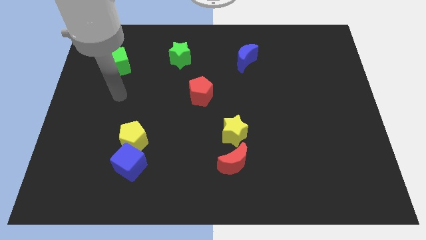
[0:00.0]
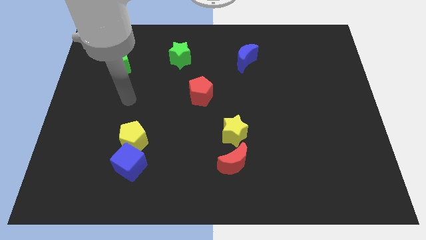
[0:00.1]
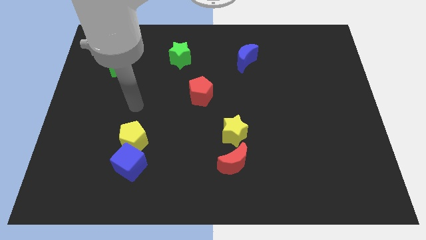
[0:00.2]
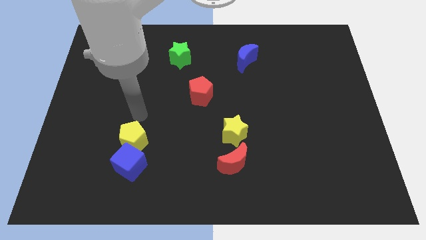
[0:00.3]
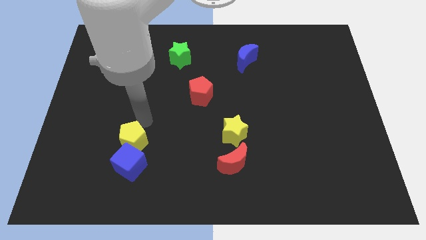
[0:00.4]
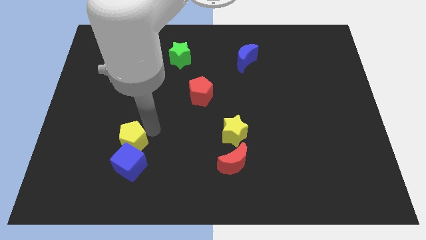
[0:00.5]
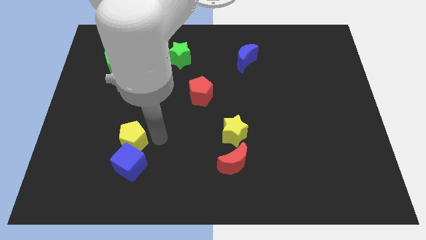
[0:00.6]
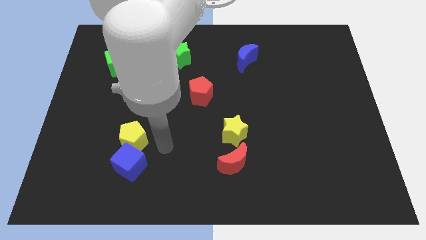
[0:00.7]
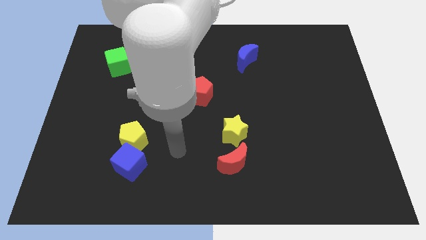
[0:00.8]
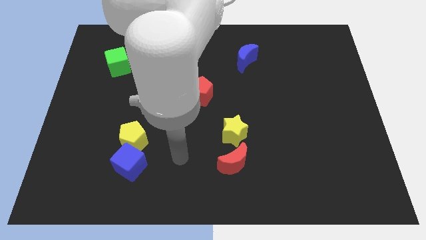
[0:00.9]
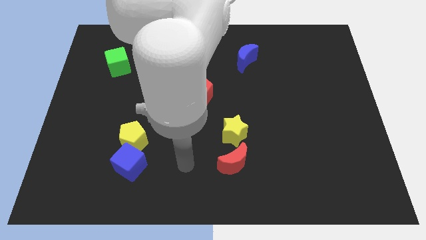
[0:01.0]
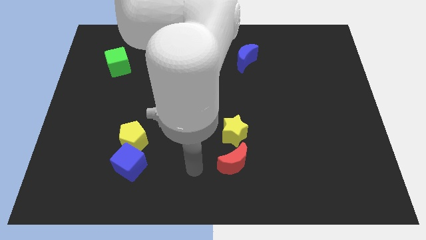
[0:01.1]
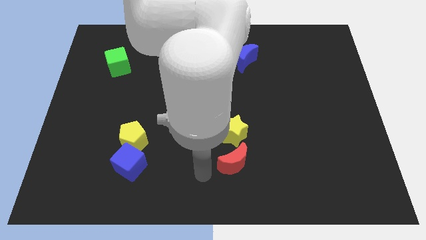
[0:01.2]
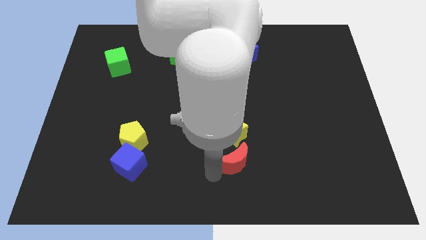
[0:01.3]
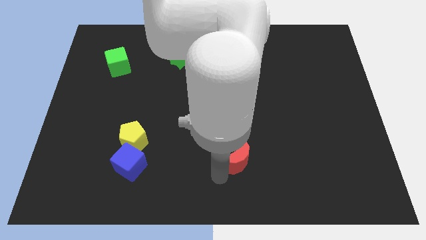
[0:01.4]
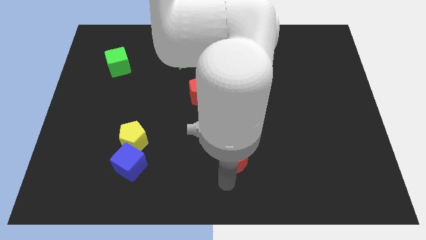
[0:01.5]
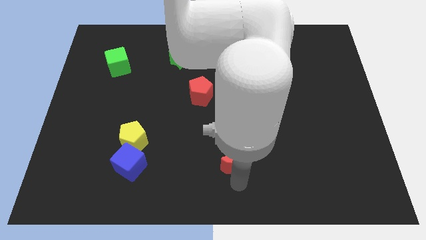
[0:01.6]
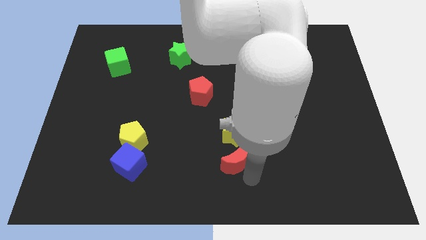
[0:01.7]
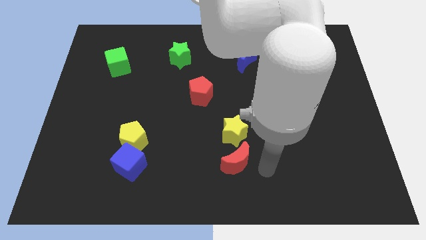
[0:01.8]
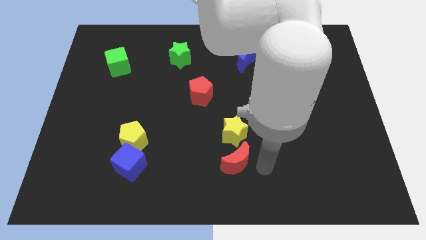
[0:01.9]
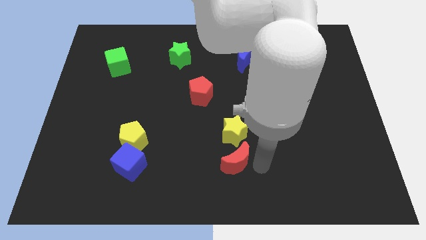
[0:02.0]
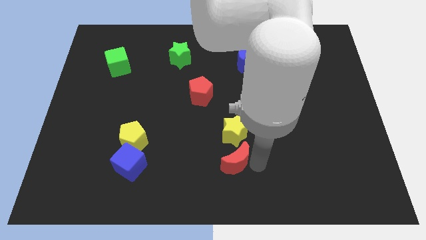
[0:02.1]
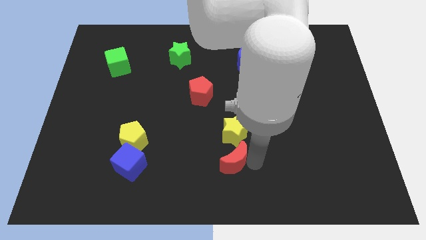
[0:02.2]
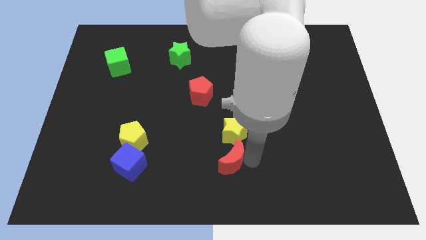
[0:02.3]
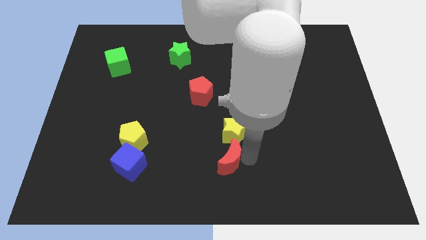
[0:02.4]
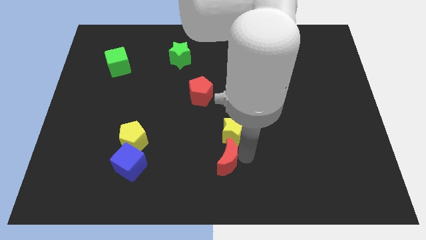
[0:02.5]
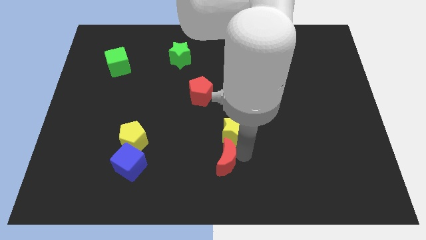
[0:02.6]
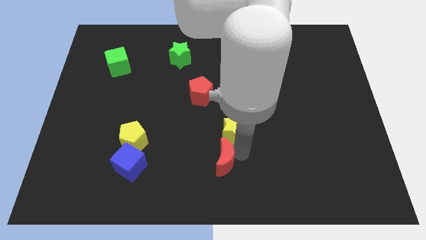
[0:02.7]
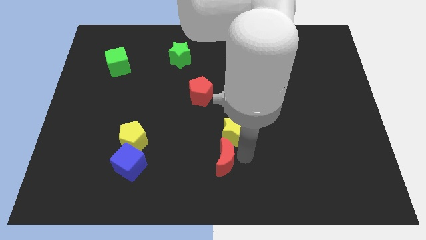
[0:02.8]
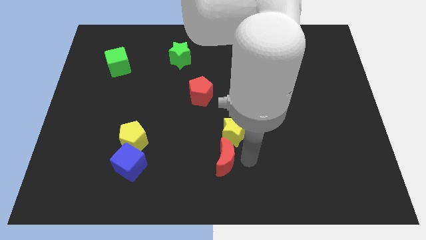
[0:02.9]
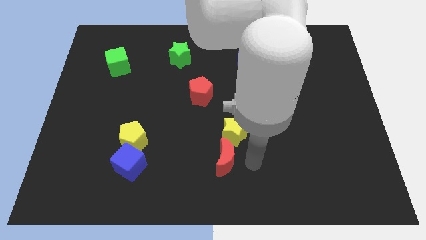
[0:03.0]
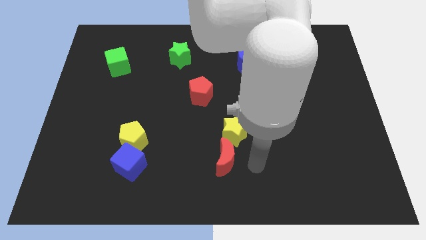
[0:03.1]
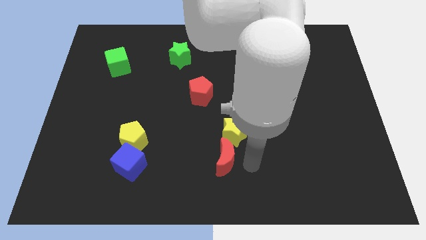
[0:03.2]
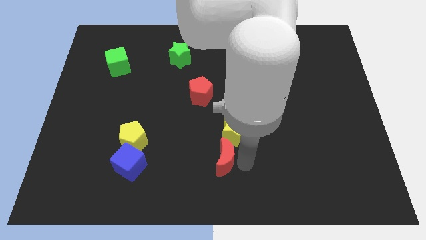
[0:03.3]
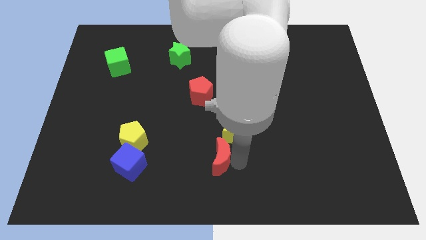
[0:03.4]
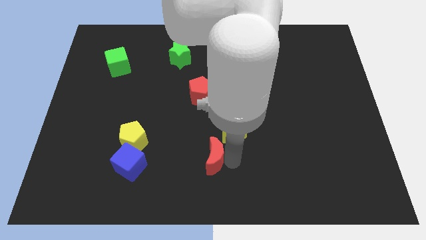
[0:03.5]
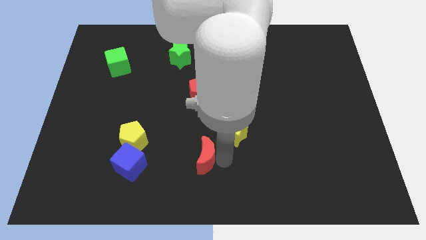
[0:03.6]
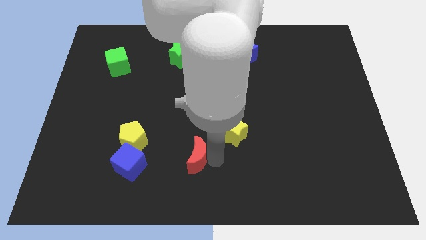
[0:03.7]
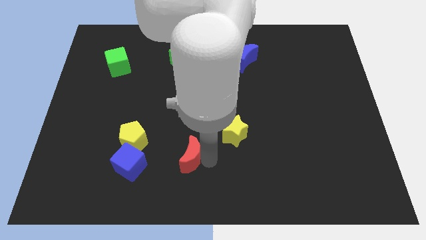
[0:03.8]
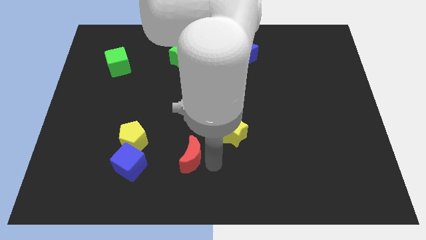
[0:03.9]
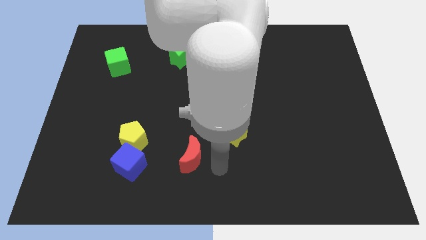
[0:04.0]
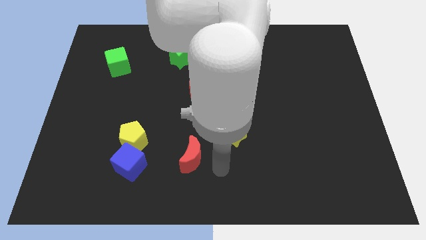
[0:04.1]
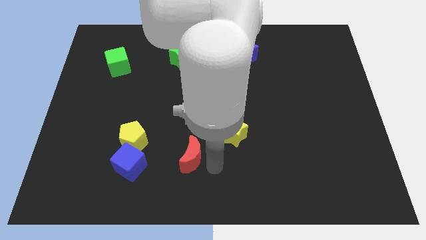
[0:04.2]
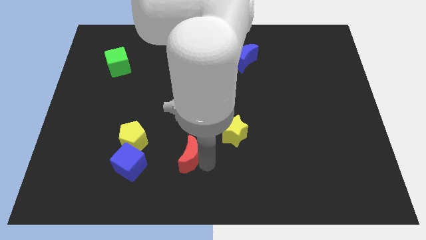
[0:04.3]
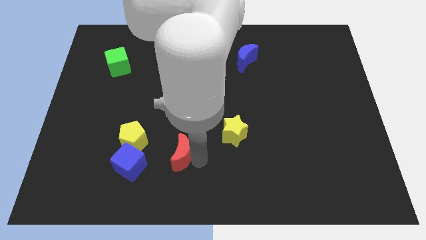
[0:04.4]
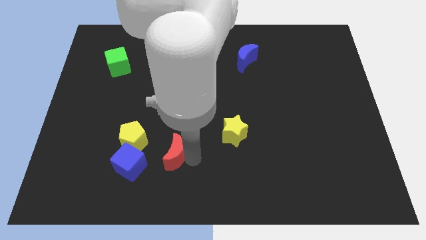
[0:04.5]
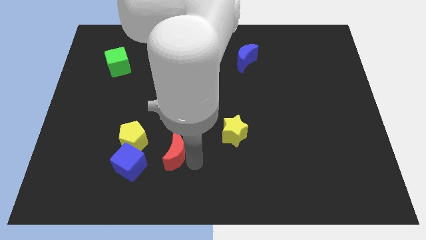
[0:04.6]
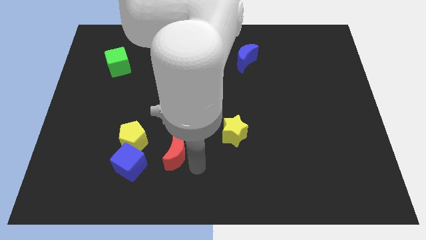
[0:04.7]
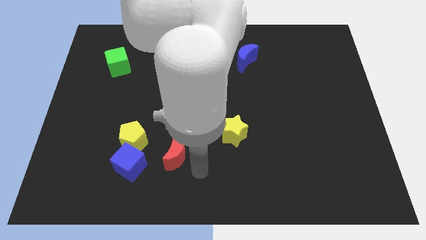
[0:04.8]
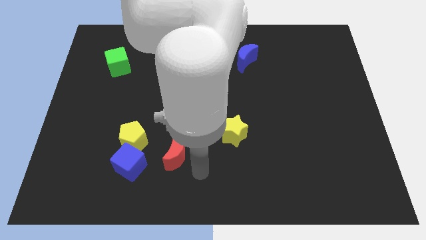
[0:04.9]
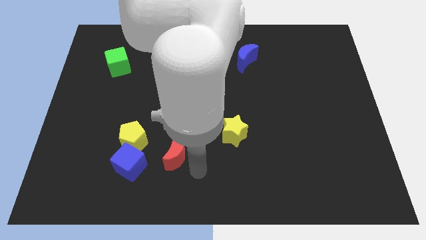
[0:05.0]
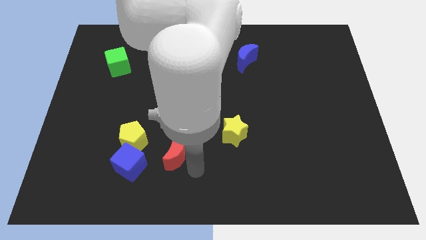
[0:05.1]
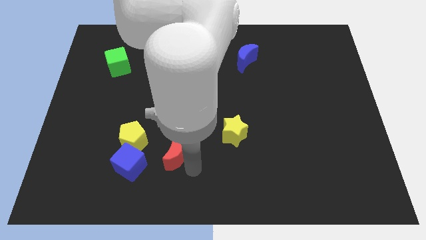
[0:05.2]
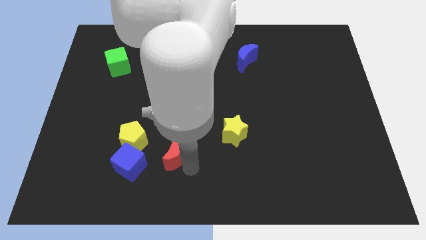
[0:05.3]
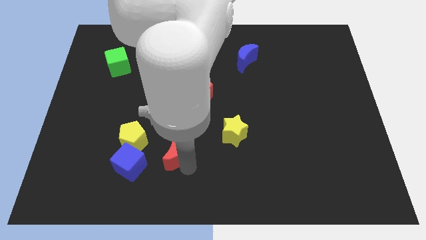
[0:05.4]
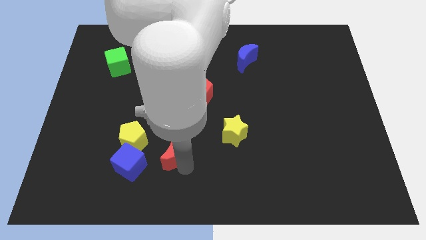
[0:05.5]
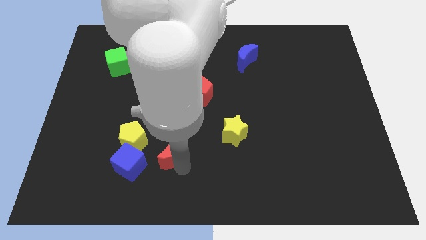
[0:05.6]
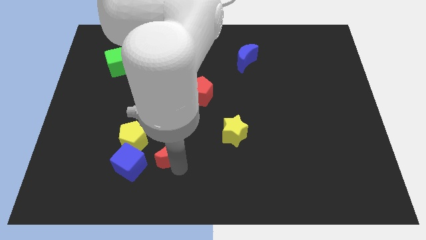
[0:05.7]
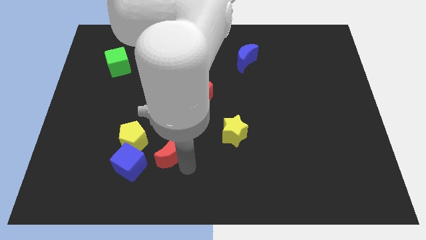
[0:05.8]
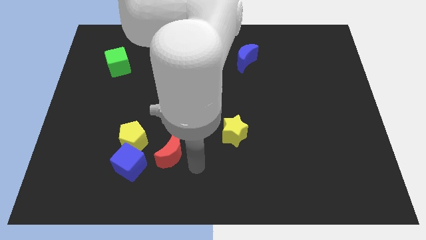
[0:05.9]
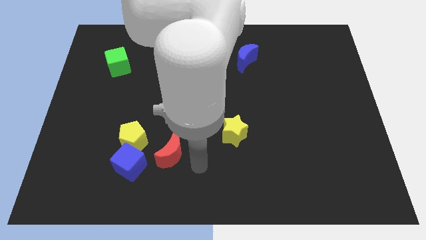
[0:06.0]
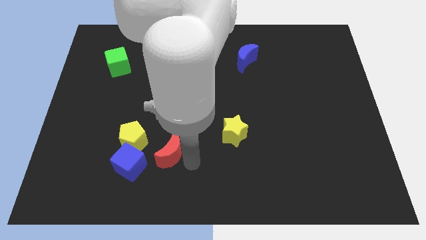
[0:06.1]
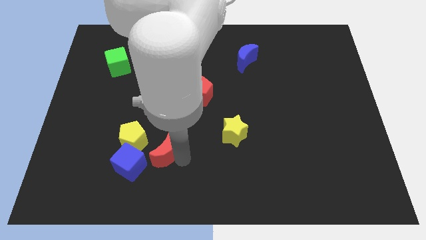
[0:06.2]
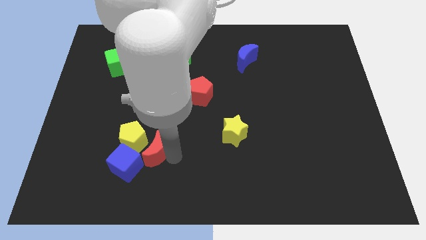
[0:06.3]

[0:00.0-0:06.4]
move the red moon close to the yellow pentagon
